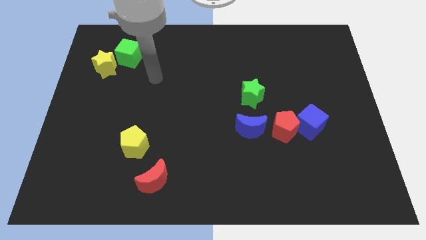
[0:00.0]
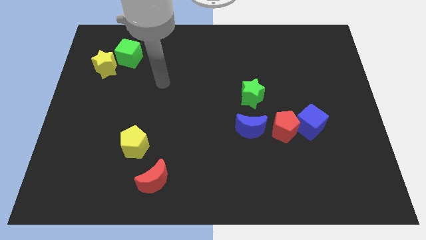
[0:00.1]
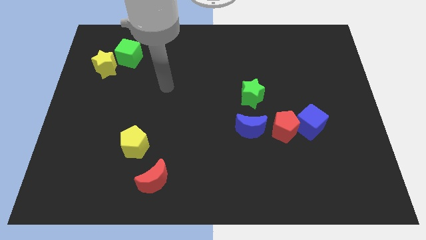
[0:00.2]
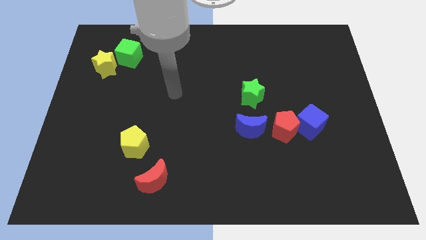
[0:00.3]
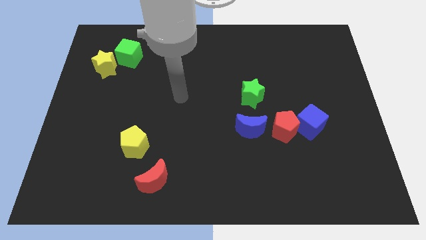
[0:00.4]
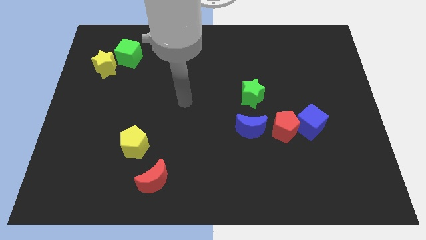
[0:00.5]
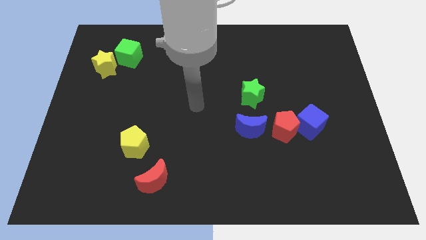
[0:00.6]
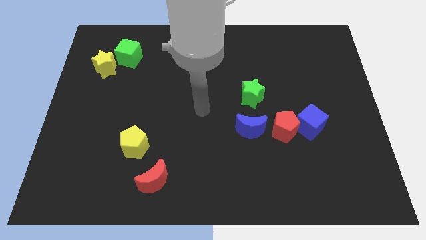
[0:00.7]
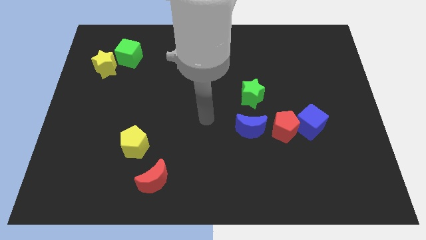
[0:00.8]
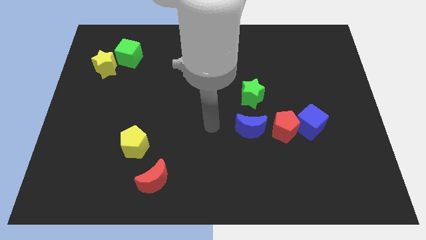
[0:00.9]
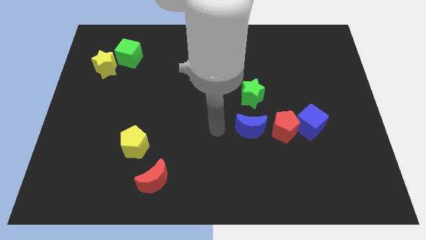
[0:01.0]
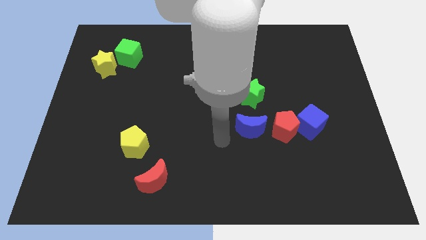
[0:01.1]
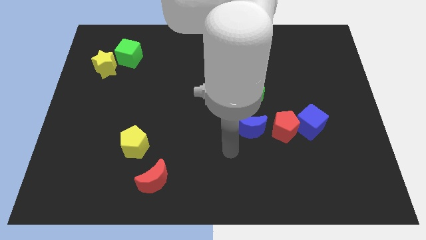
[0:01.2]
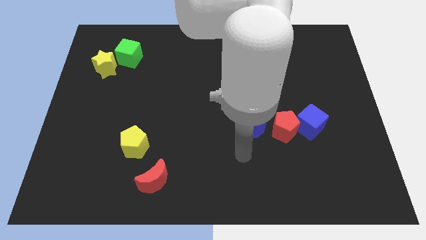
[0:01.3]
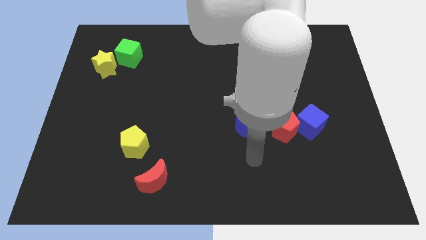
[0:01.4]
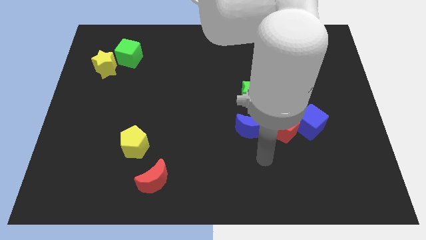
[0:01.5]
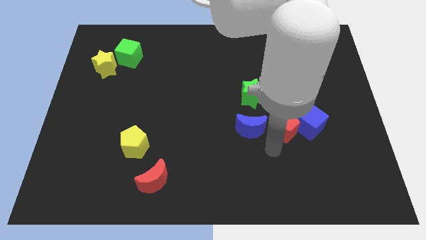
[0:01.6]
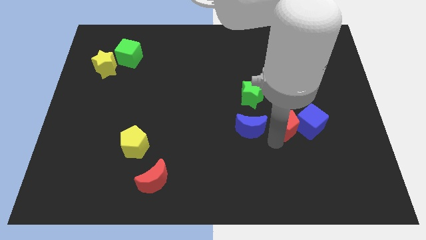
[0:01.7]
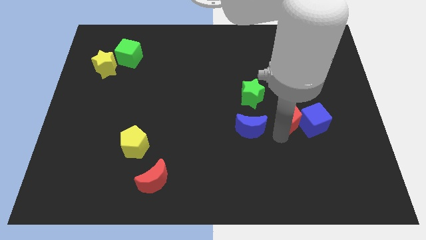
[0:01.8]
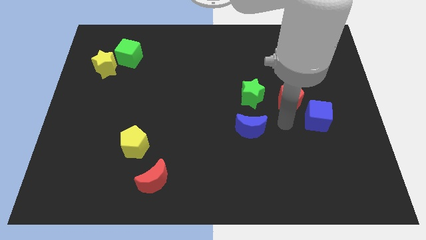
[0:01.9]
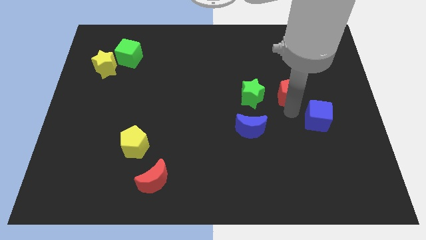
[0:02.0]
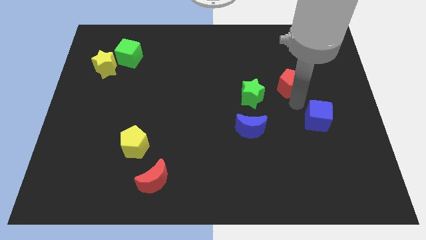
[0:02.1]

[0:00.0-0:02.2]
move the blue cube away from the red pentagon

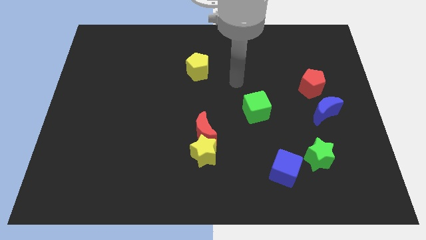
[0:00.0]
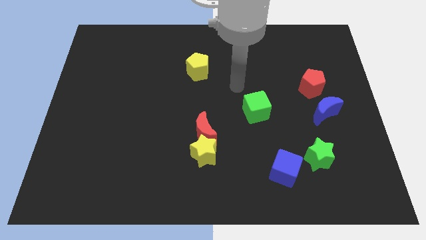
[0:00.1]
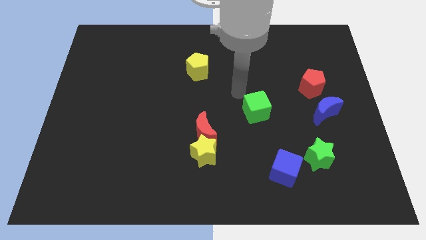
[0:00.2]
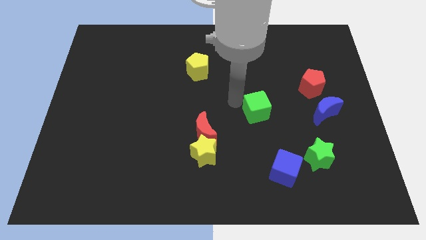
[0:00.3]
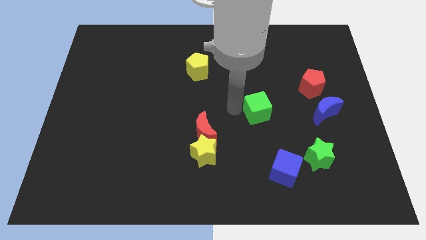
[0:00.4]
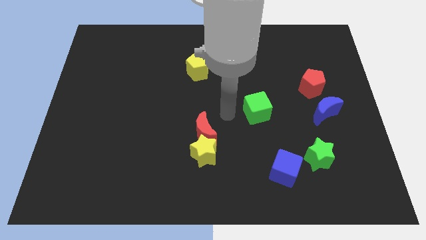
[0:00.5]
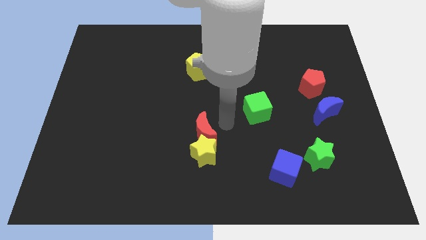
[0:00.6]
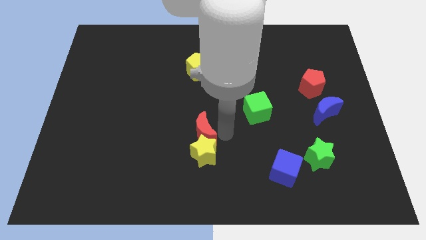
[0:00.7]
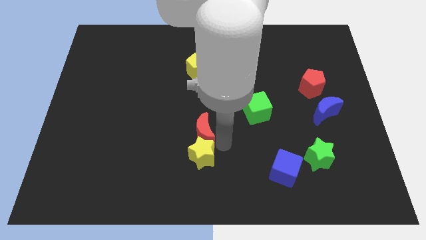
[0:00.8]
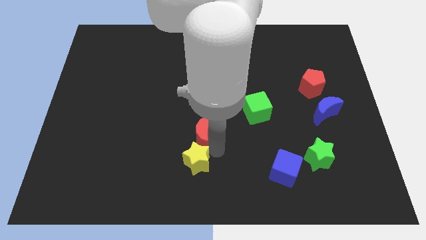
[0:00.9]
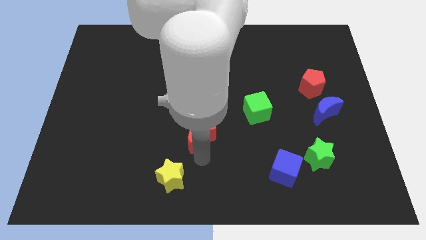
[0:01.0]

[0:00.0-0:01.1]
separate the red moon from the yellow star

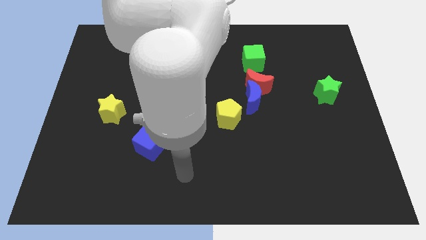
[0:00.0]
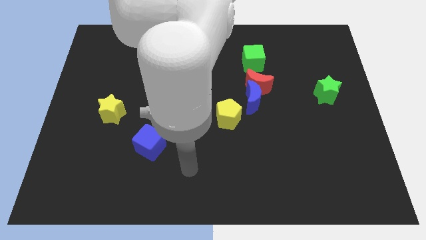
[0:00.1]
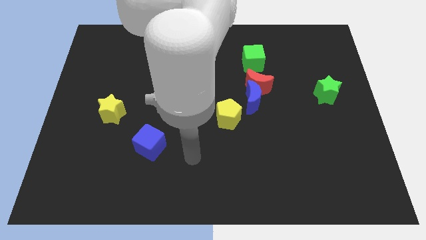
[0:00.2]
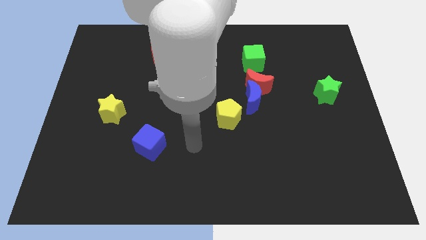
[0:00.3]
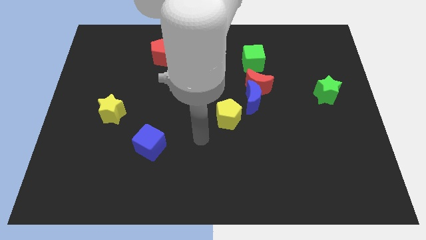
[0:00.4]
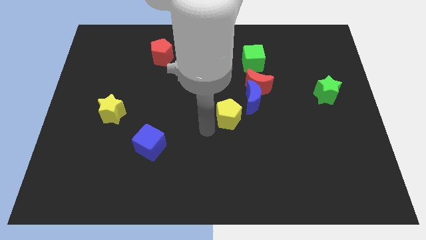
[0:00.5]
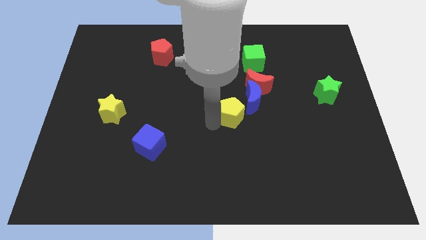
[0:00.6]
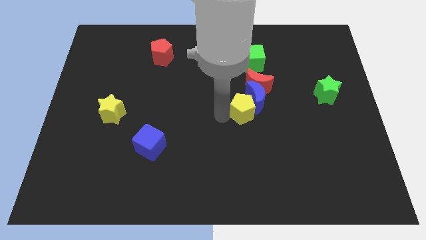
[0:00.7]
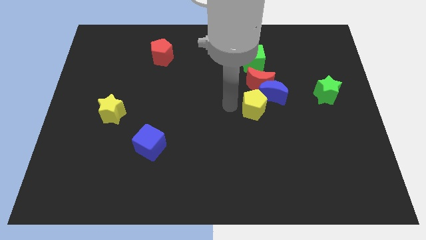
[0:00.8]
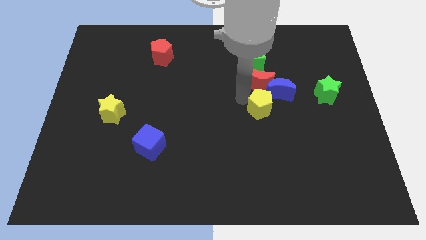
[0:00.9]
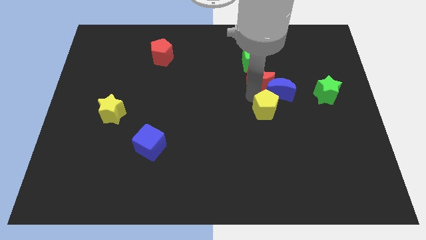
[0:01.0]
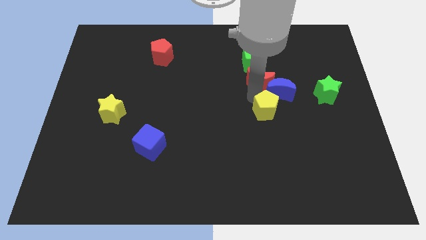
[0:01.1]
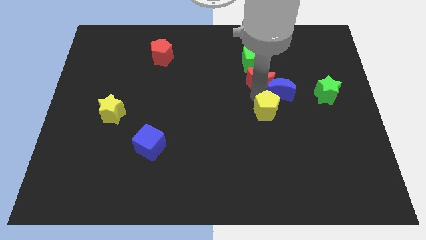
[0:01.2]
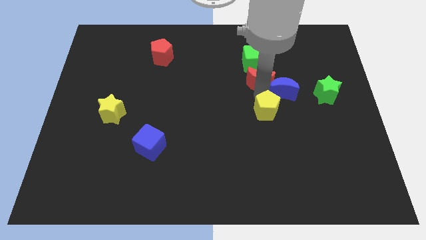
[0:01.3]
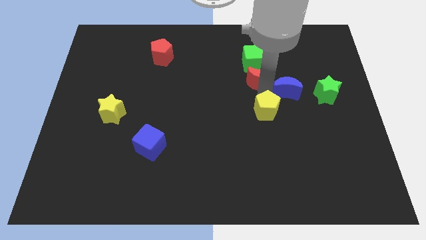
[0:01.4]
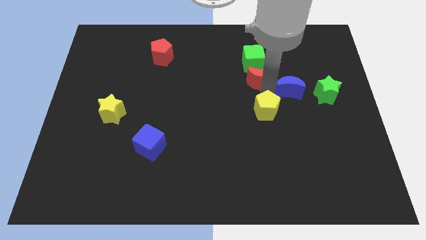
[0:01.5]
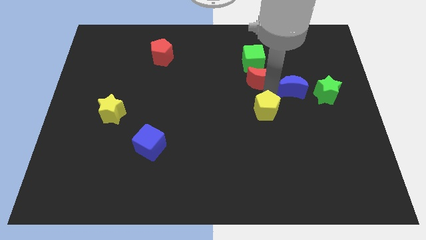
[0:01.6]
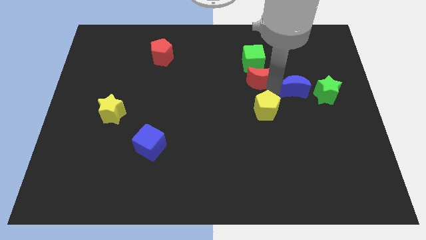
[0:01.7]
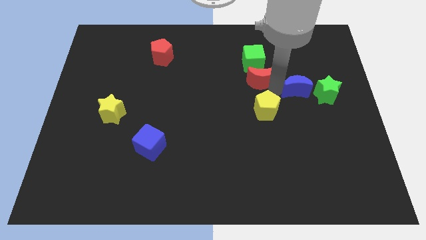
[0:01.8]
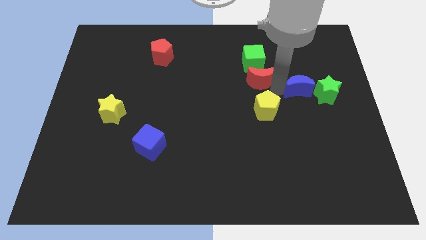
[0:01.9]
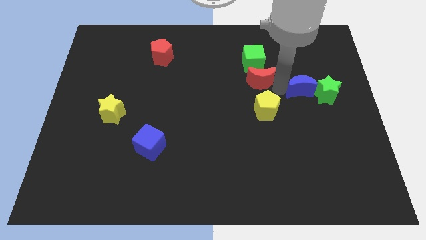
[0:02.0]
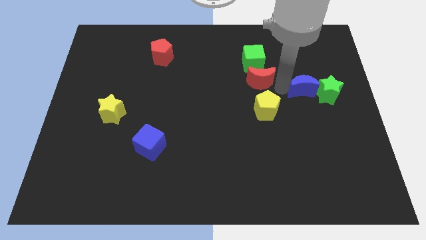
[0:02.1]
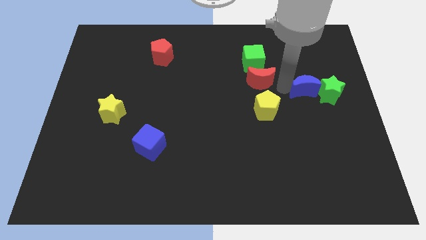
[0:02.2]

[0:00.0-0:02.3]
separate the blue moon from the red moon and yellow pentagon

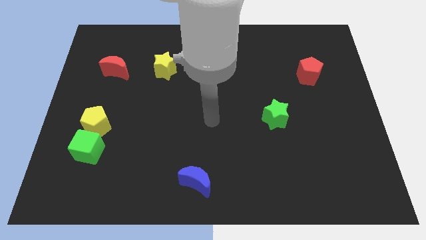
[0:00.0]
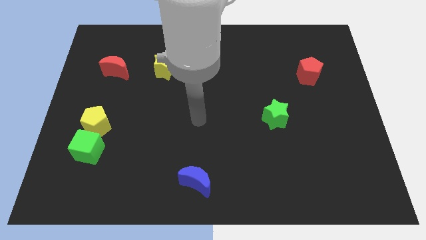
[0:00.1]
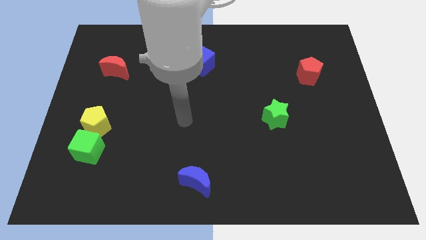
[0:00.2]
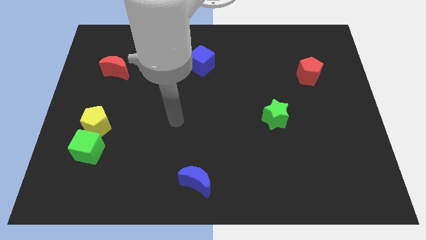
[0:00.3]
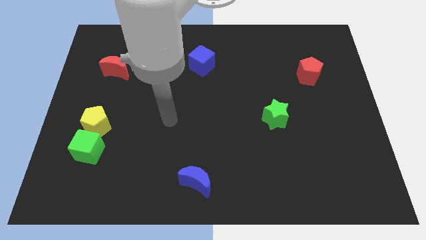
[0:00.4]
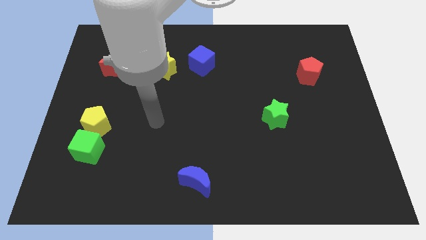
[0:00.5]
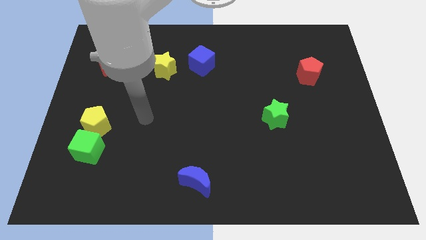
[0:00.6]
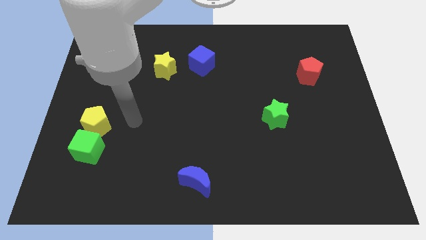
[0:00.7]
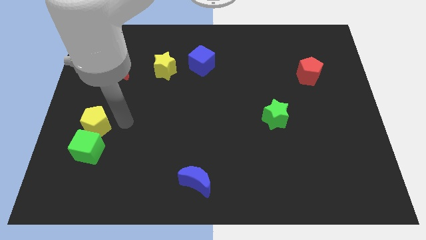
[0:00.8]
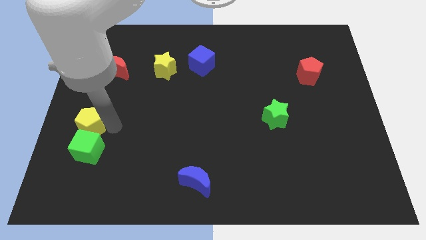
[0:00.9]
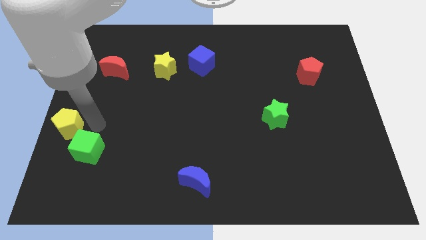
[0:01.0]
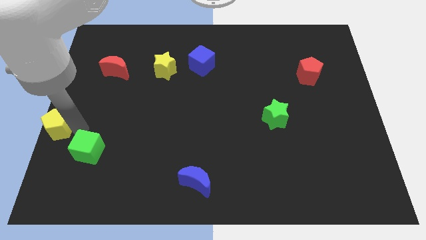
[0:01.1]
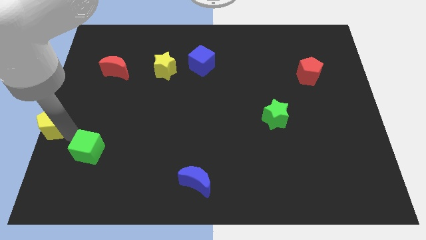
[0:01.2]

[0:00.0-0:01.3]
pull the green cube apart from the yellow pentagon

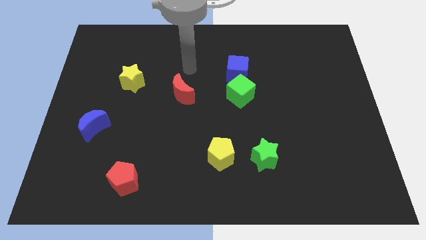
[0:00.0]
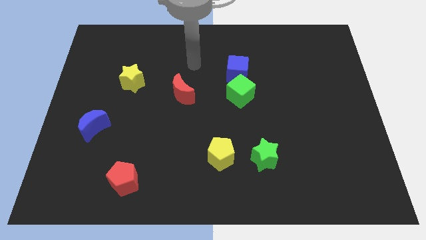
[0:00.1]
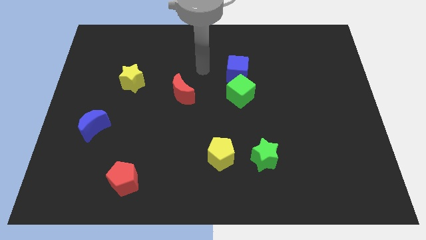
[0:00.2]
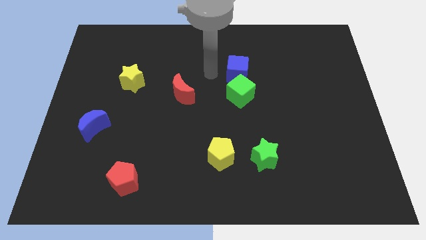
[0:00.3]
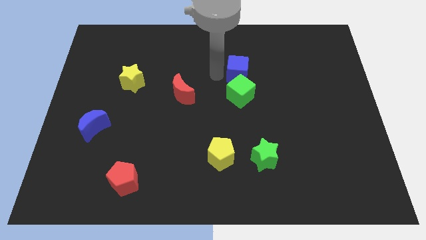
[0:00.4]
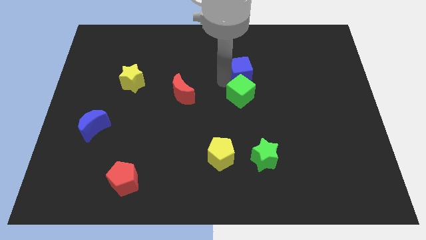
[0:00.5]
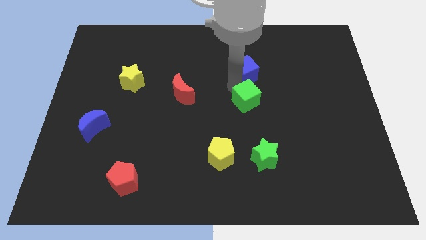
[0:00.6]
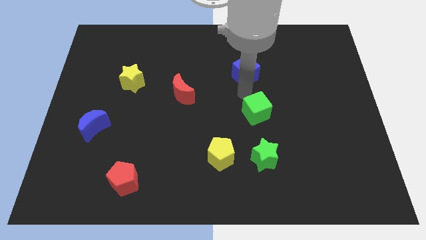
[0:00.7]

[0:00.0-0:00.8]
move the blue cube away from the green cube

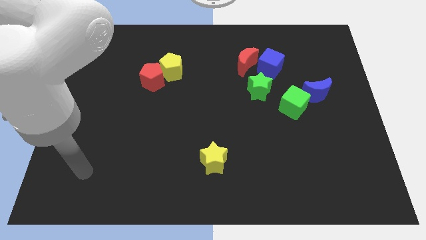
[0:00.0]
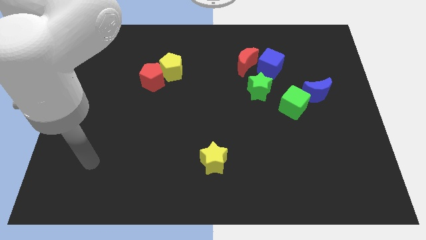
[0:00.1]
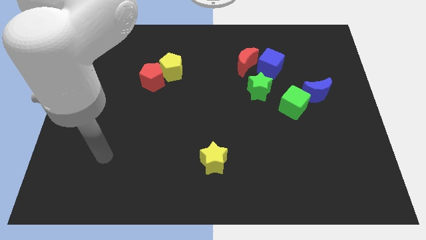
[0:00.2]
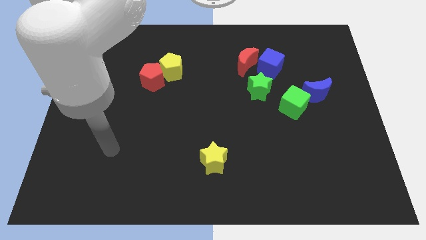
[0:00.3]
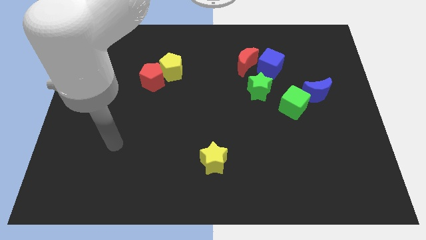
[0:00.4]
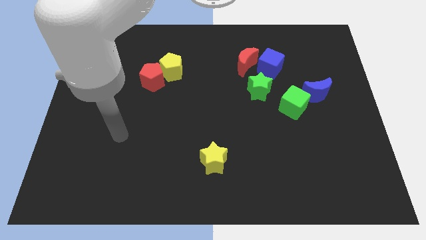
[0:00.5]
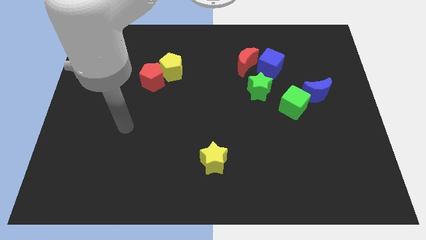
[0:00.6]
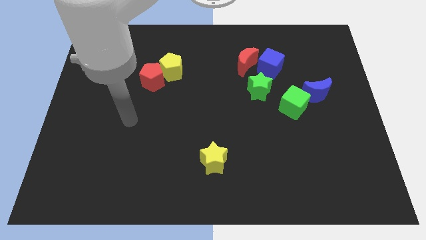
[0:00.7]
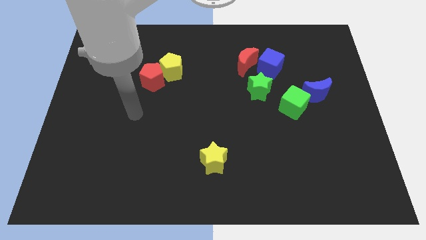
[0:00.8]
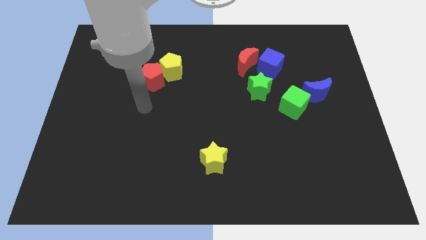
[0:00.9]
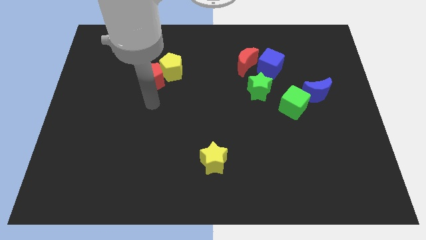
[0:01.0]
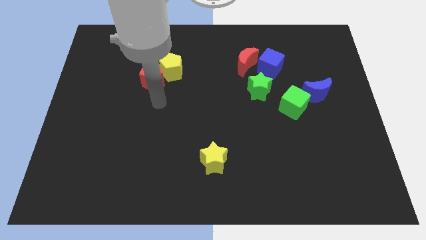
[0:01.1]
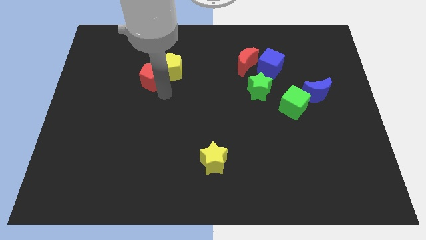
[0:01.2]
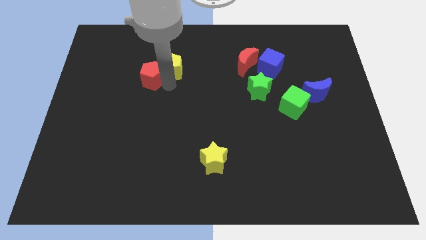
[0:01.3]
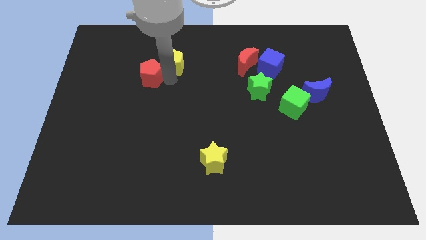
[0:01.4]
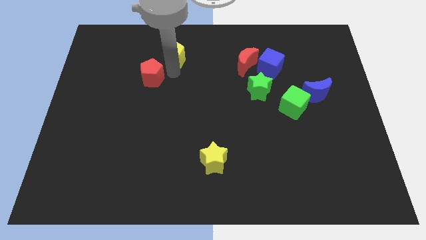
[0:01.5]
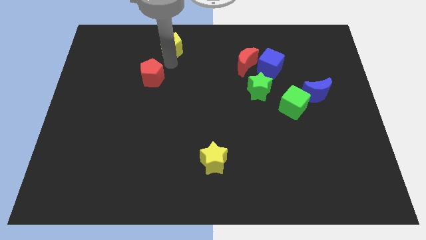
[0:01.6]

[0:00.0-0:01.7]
move the red pentagon away from the yellow pentagon
